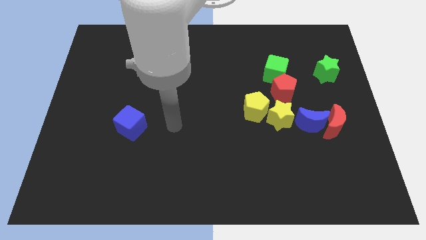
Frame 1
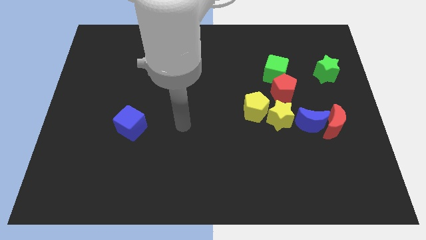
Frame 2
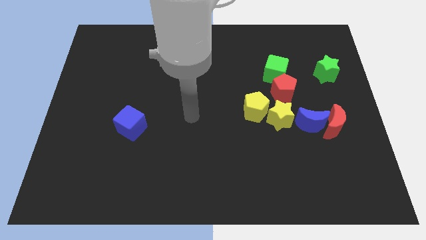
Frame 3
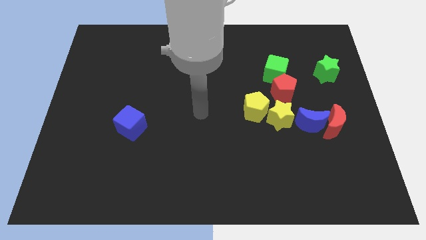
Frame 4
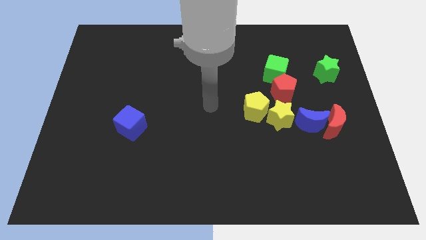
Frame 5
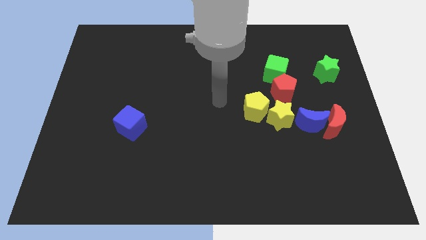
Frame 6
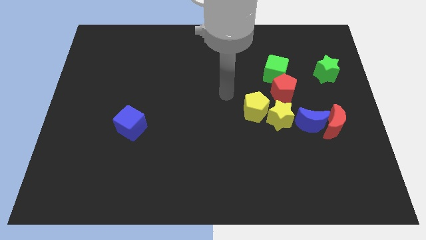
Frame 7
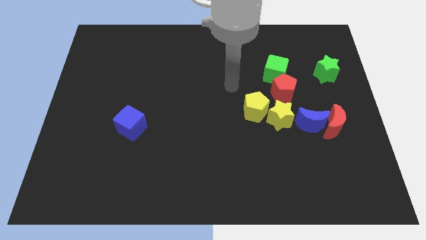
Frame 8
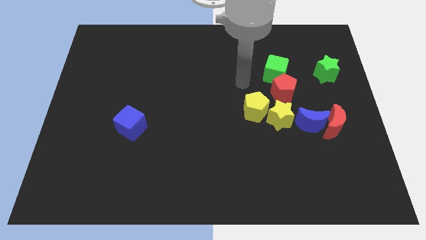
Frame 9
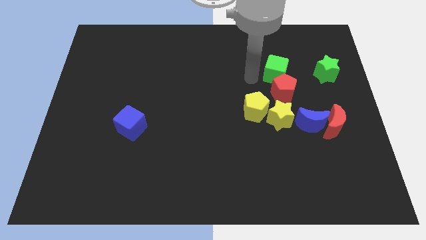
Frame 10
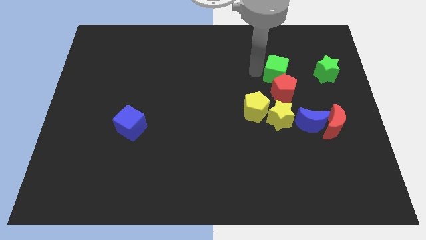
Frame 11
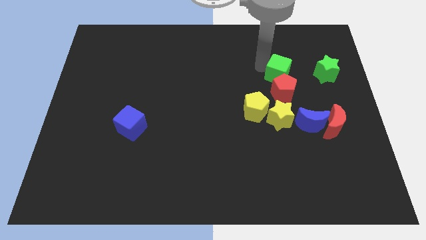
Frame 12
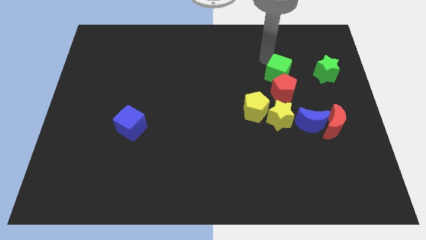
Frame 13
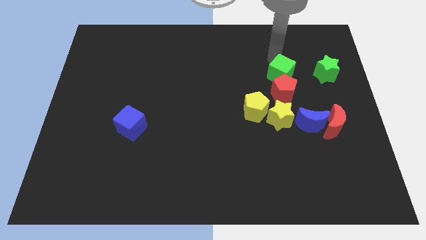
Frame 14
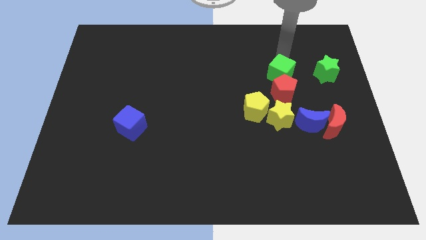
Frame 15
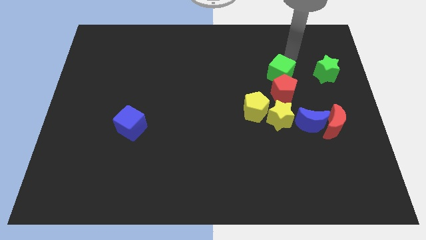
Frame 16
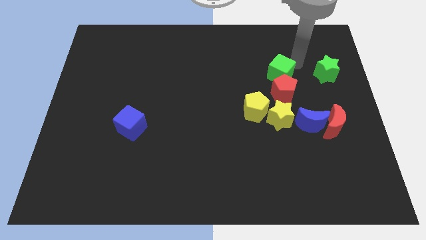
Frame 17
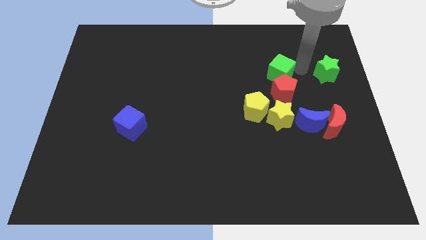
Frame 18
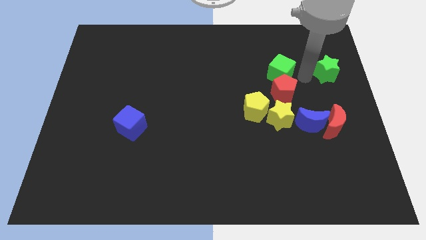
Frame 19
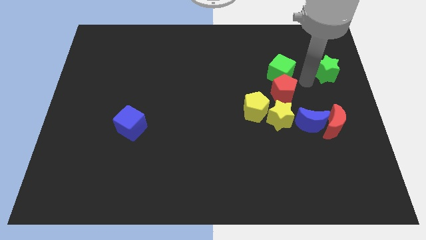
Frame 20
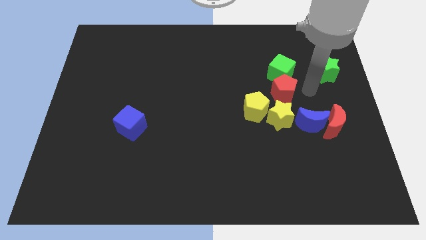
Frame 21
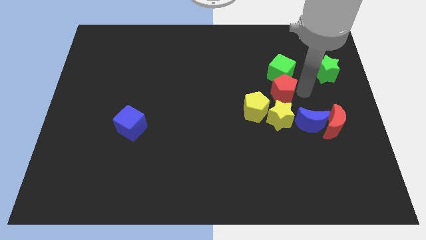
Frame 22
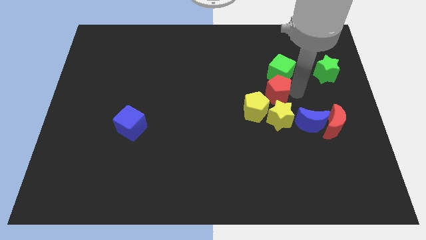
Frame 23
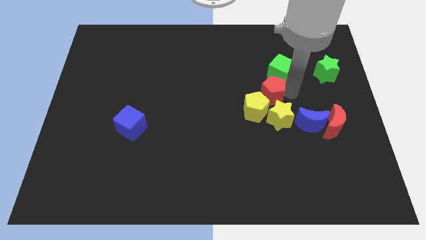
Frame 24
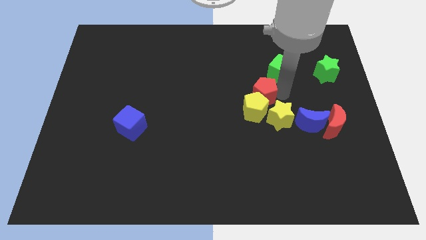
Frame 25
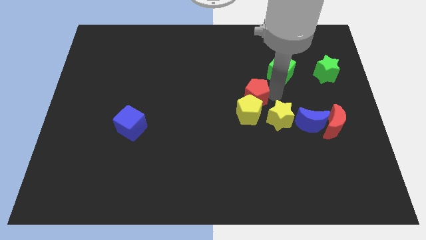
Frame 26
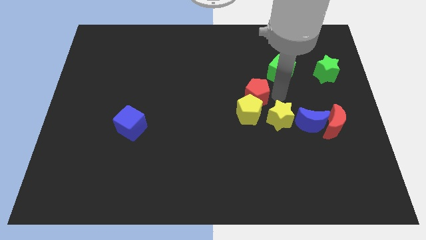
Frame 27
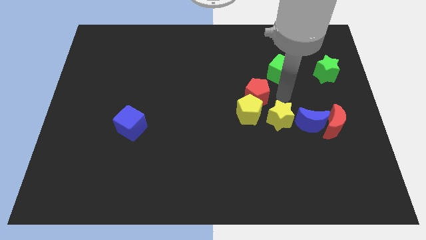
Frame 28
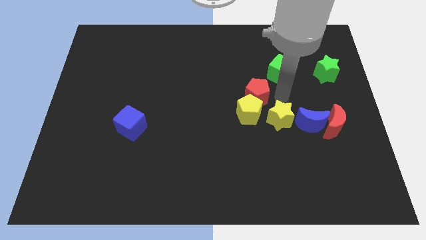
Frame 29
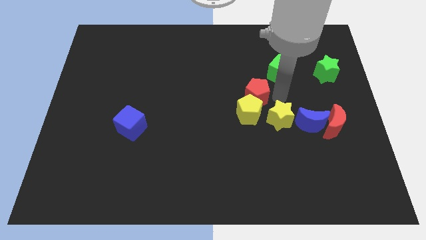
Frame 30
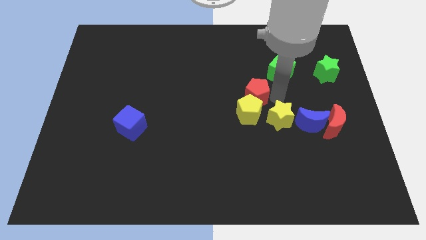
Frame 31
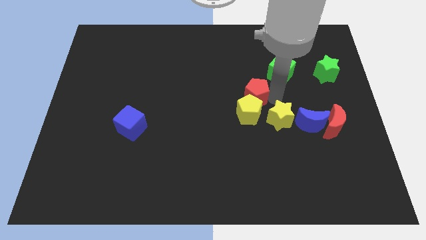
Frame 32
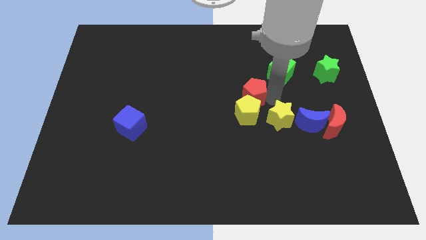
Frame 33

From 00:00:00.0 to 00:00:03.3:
slightly move the red pentagon left

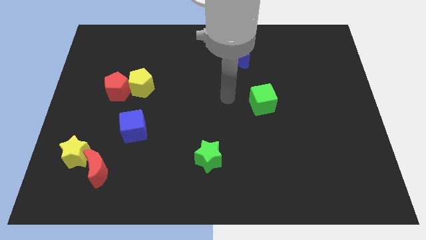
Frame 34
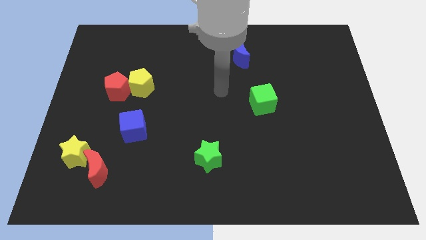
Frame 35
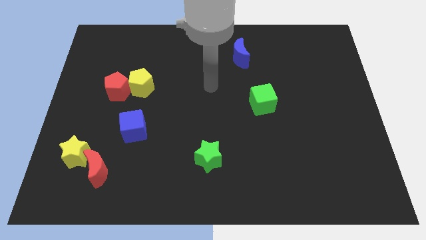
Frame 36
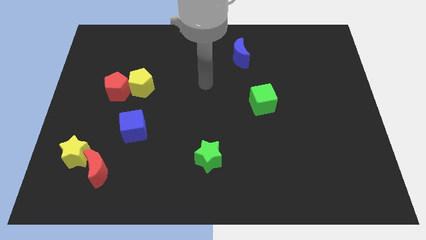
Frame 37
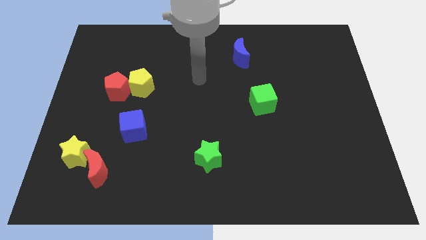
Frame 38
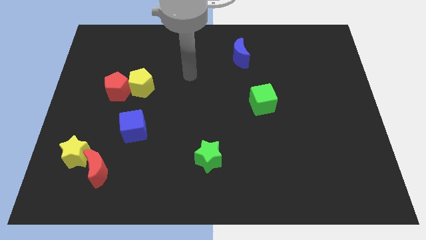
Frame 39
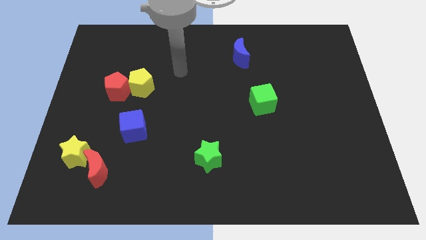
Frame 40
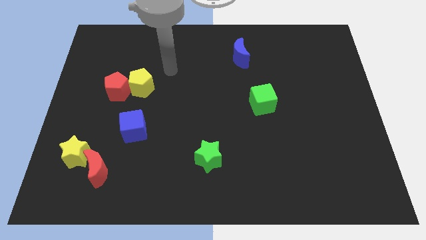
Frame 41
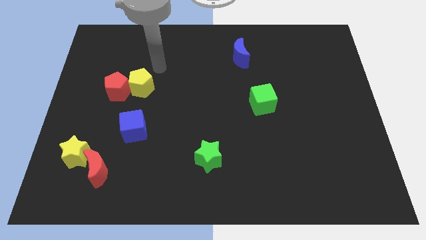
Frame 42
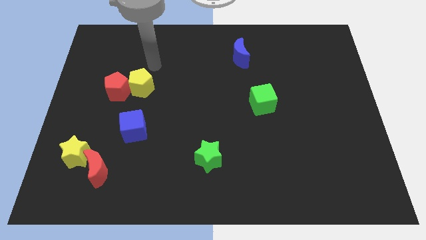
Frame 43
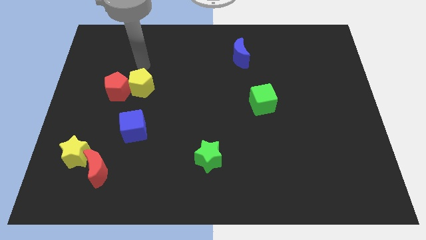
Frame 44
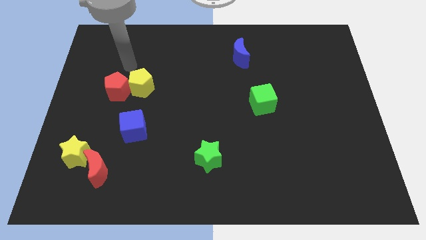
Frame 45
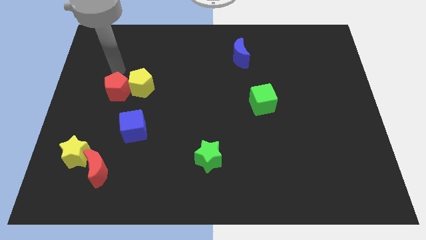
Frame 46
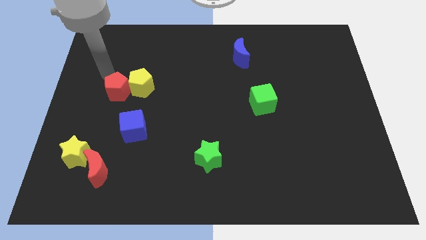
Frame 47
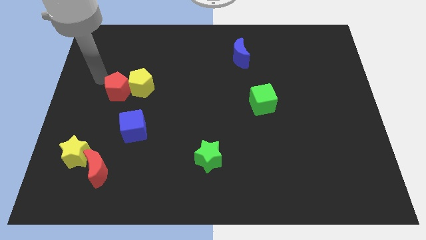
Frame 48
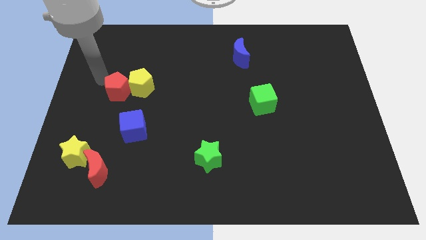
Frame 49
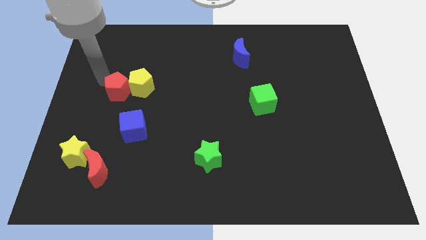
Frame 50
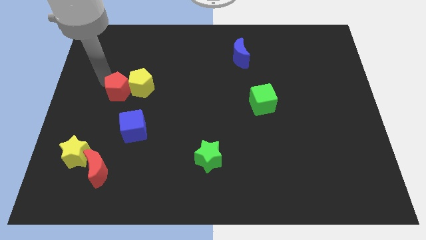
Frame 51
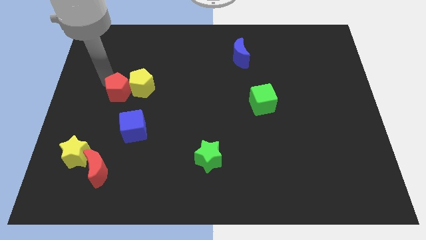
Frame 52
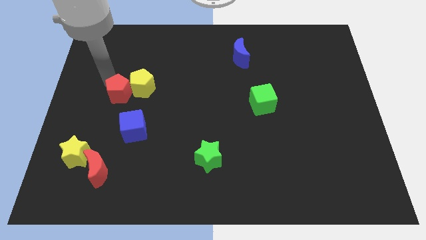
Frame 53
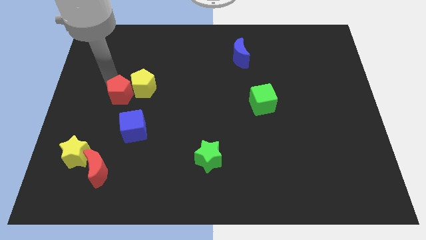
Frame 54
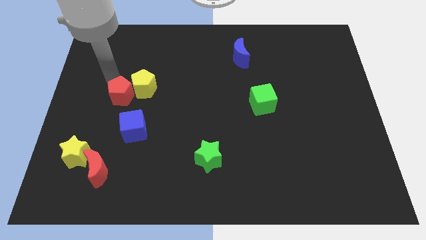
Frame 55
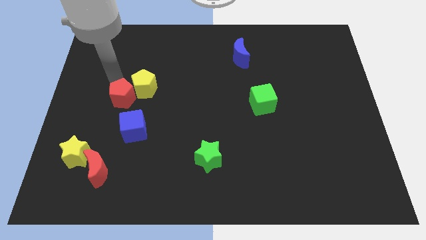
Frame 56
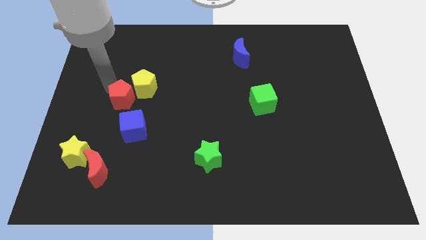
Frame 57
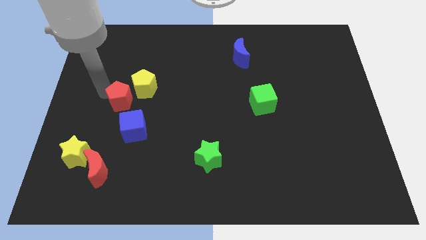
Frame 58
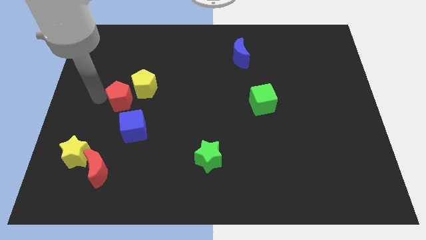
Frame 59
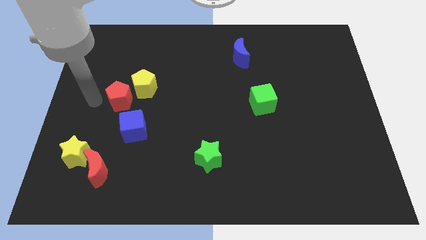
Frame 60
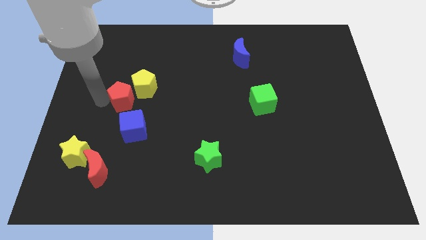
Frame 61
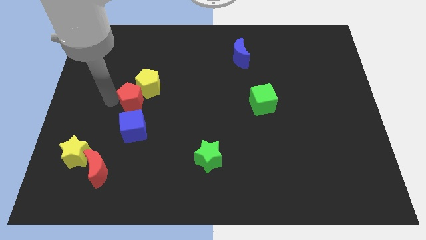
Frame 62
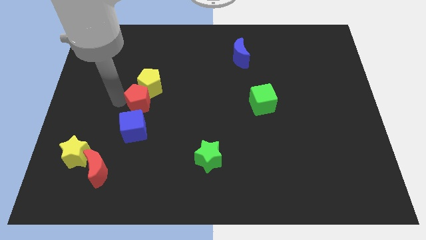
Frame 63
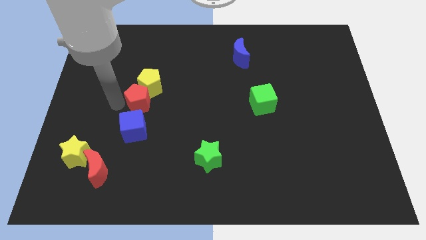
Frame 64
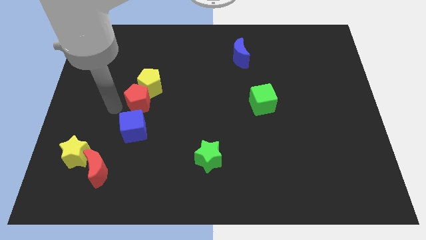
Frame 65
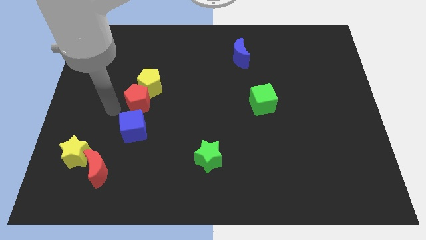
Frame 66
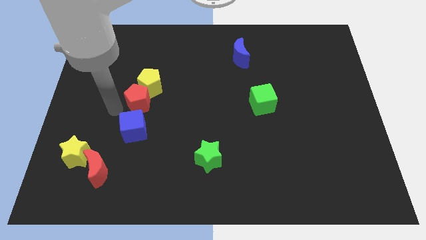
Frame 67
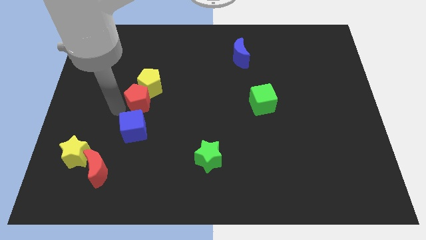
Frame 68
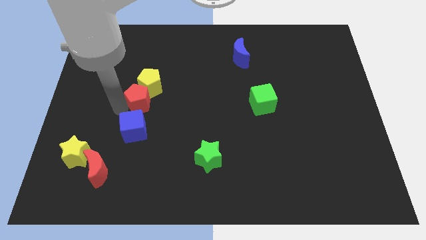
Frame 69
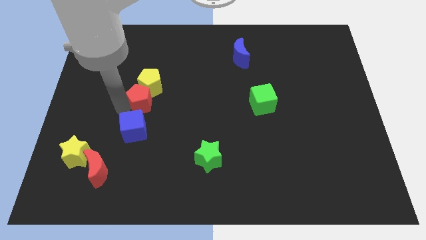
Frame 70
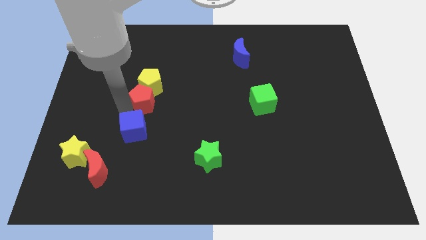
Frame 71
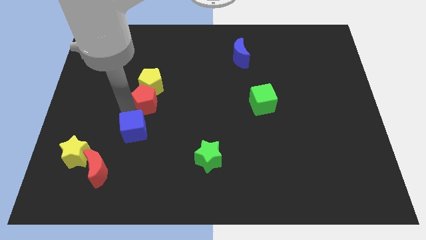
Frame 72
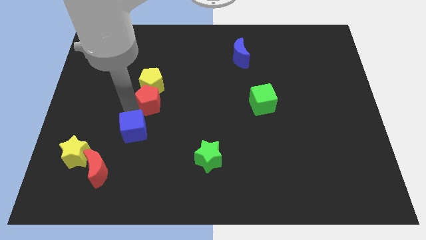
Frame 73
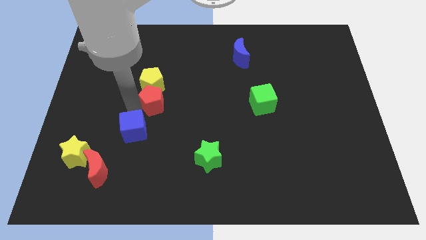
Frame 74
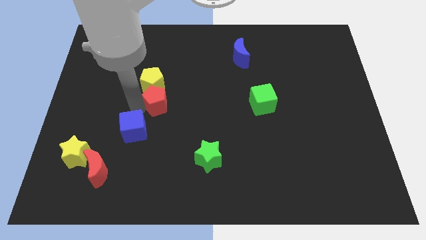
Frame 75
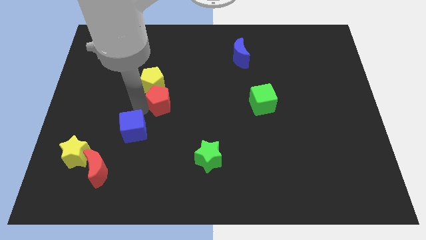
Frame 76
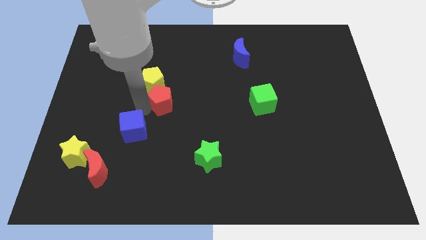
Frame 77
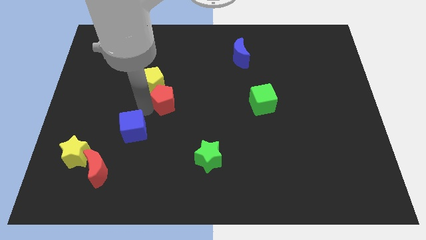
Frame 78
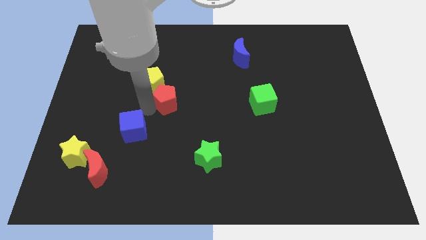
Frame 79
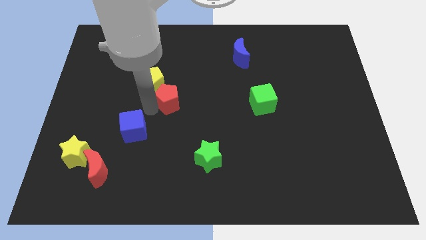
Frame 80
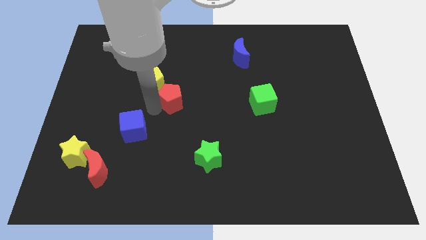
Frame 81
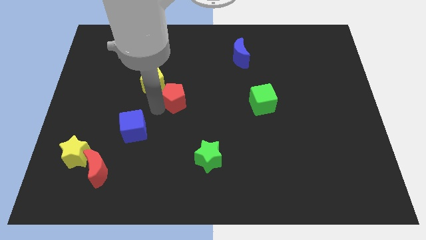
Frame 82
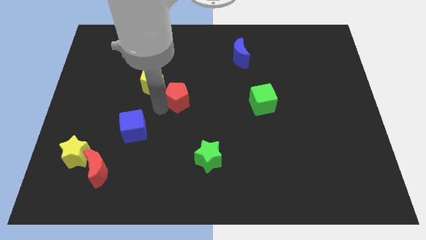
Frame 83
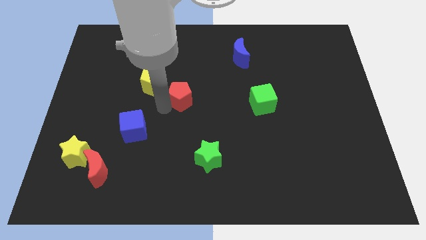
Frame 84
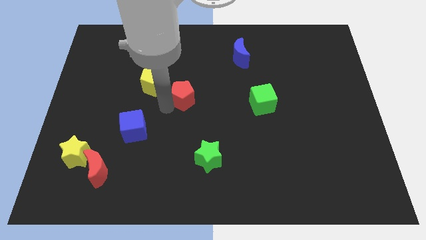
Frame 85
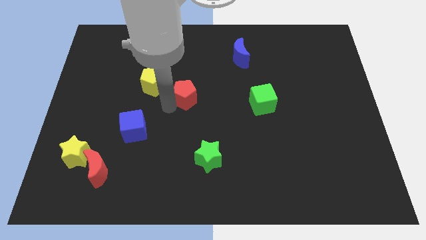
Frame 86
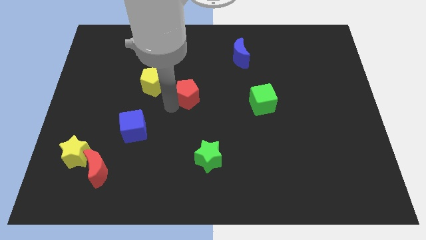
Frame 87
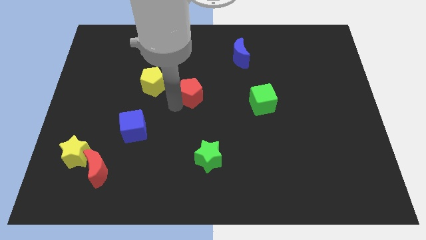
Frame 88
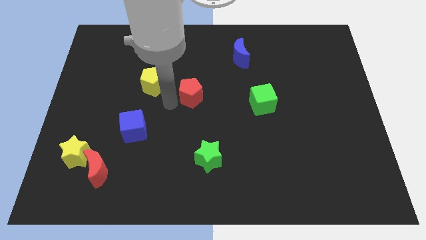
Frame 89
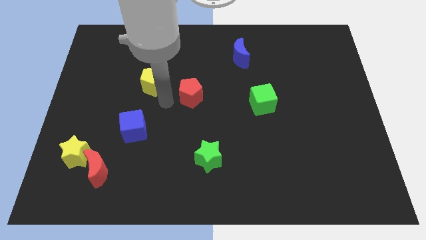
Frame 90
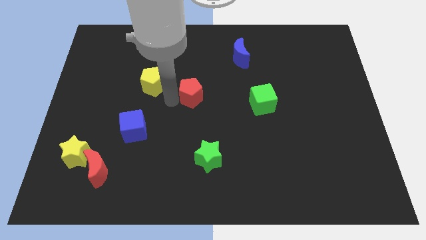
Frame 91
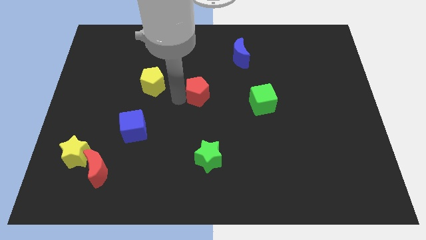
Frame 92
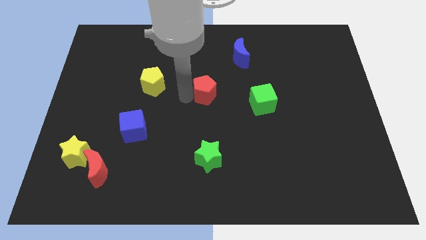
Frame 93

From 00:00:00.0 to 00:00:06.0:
slide the red pentagon right
